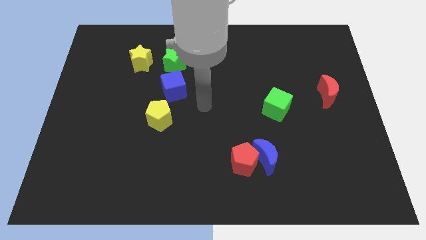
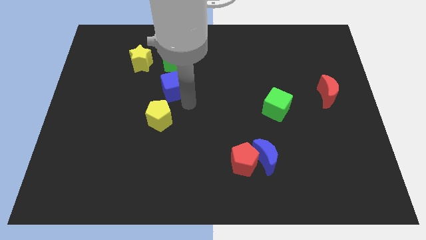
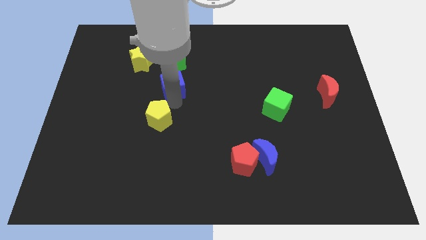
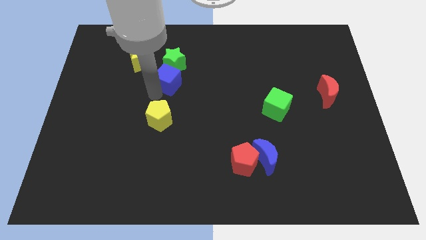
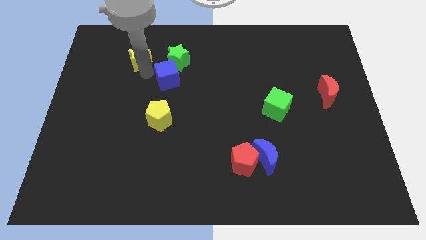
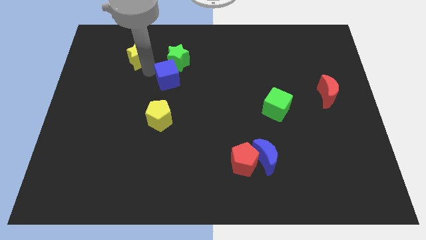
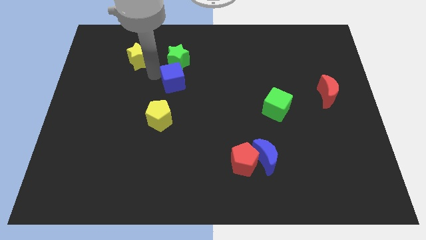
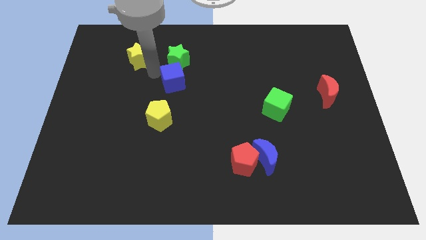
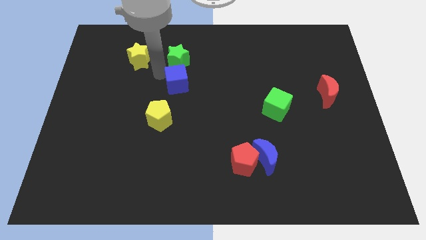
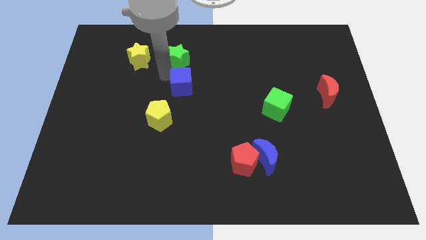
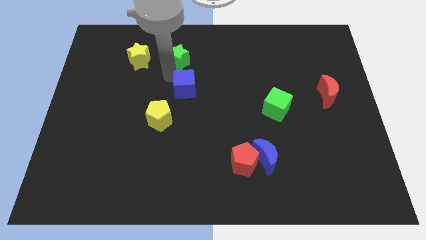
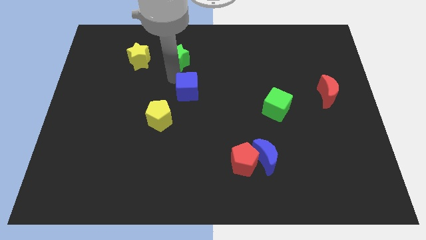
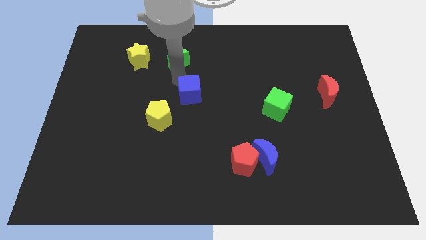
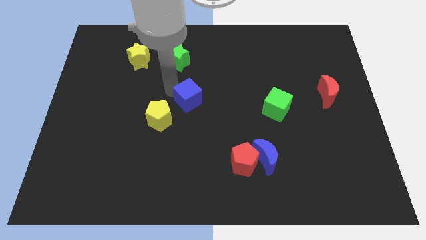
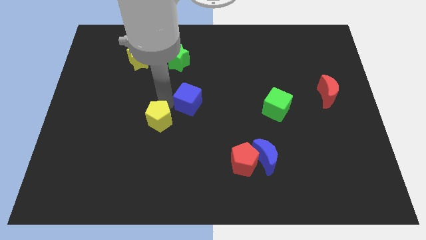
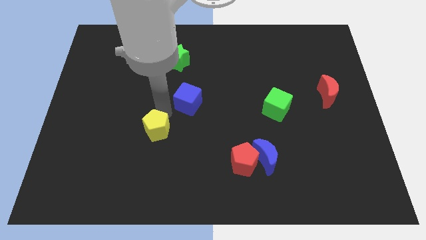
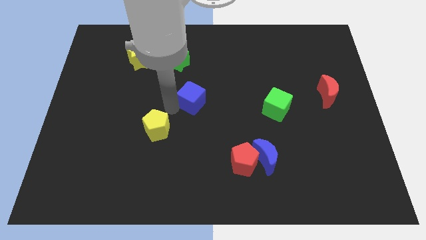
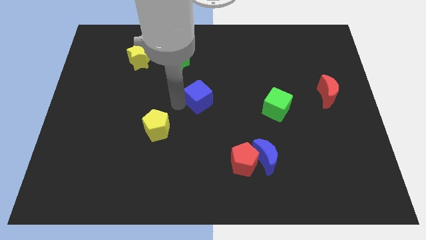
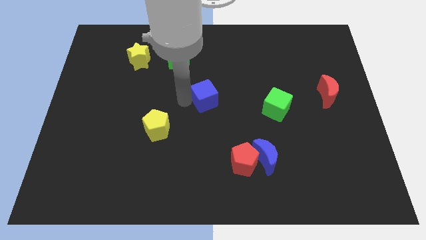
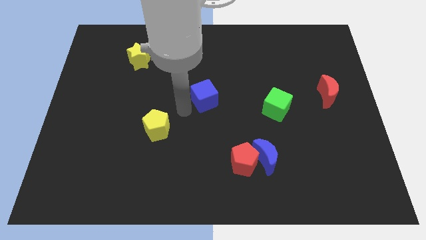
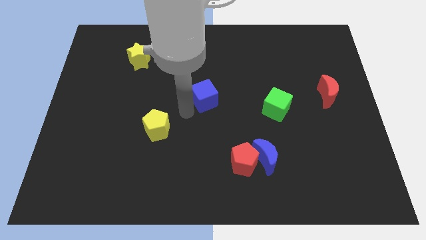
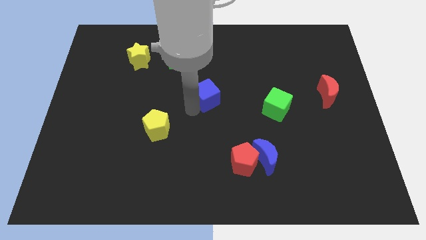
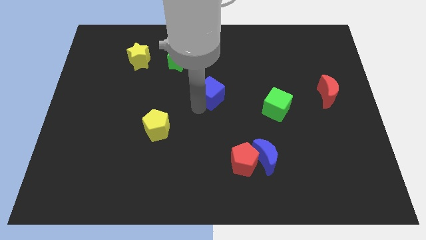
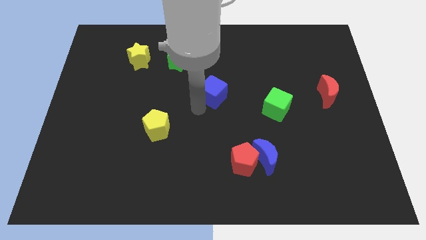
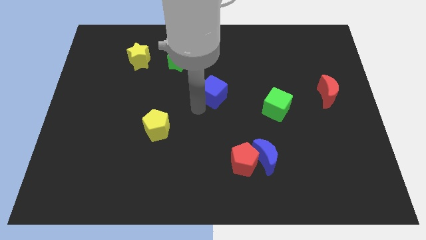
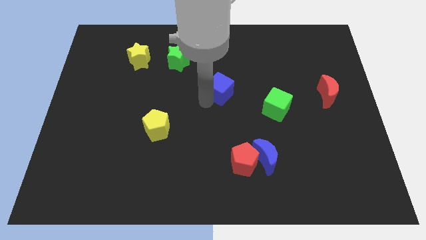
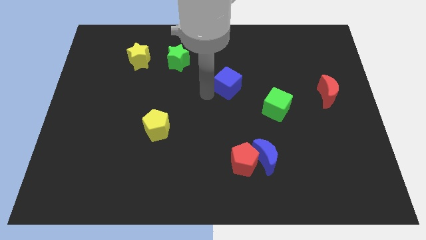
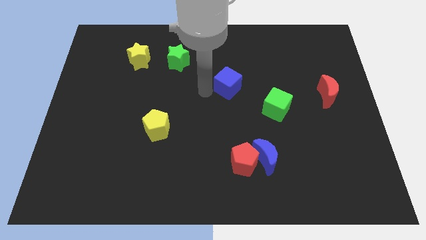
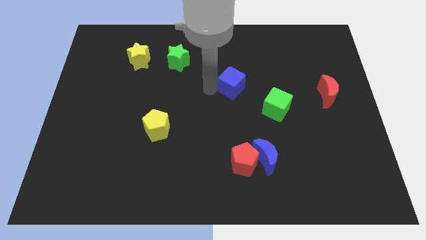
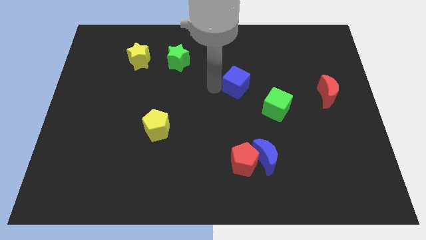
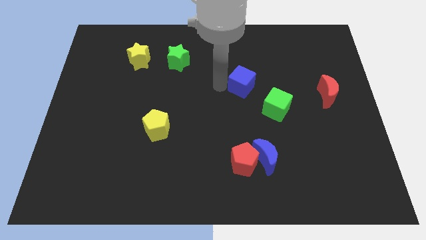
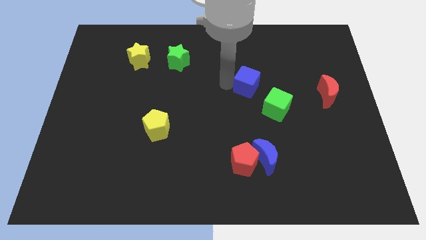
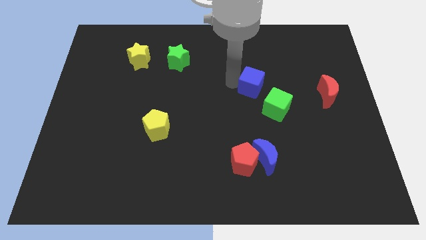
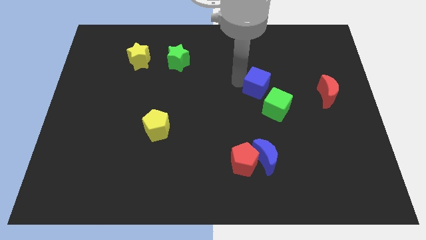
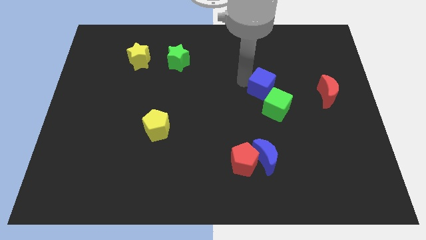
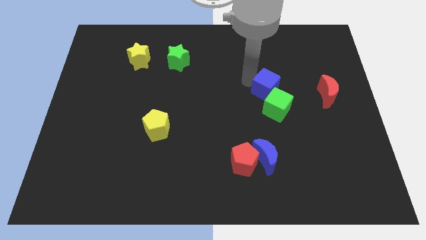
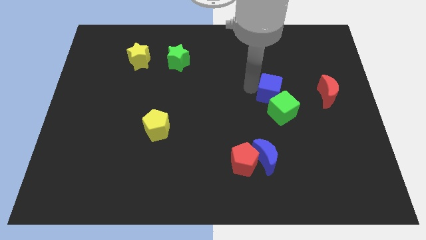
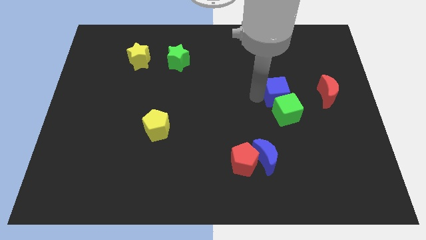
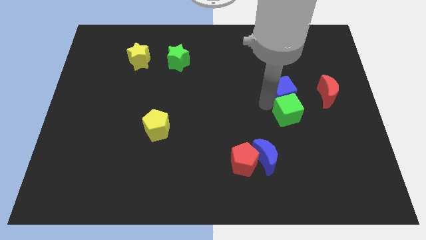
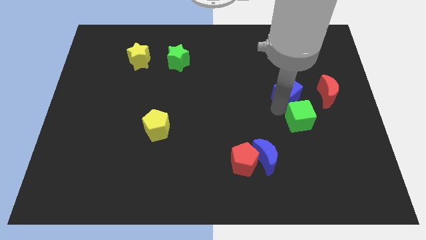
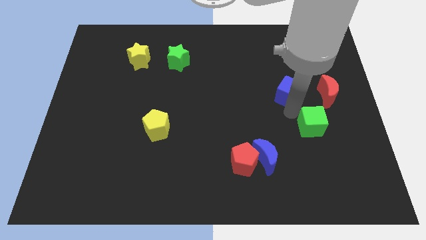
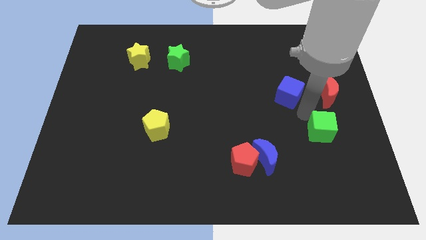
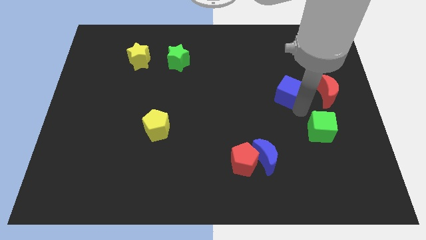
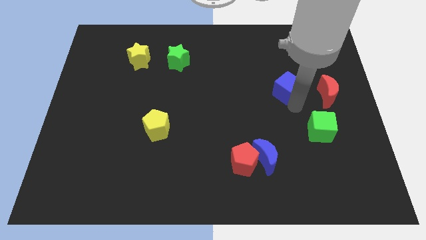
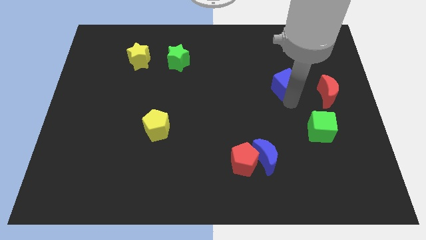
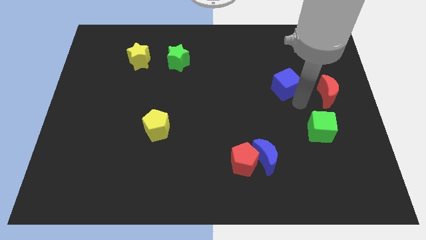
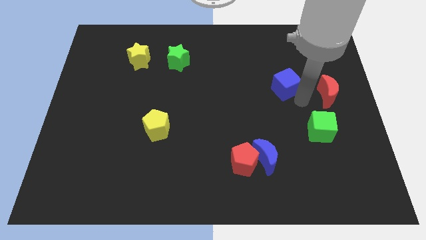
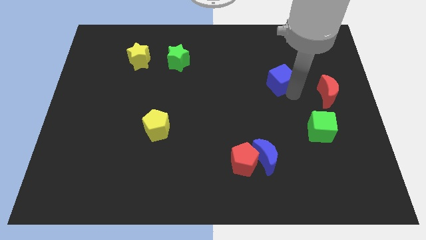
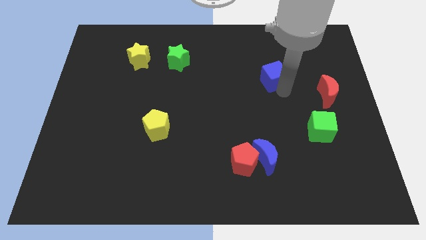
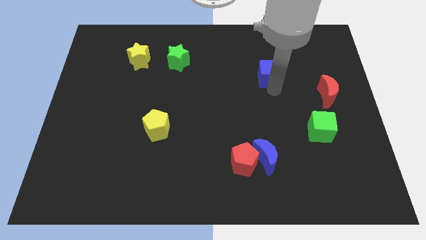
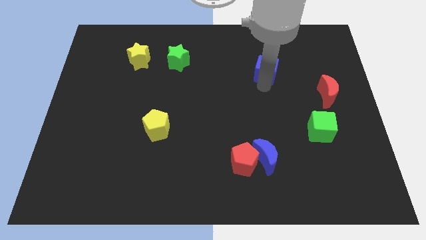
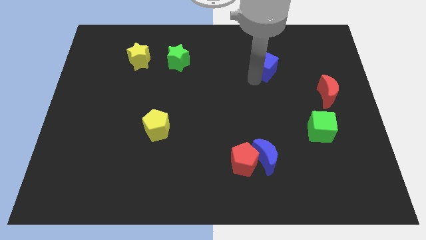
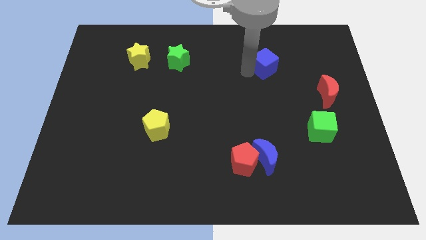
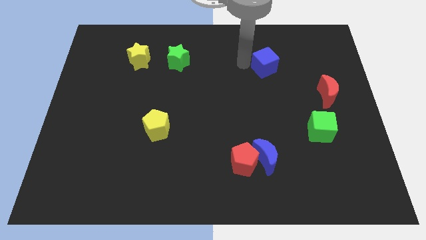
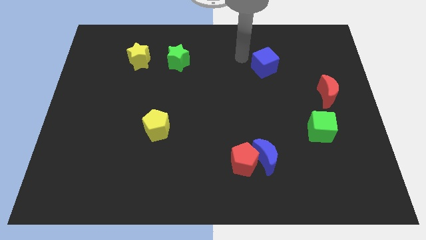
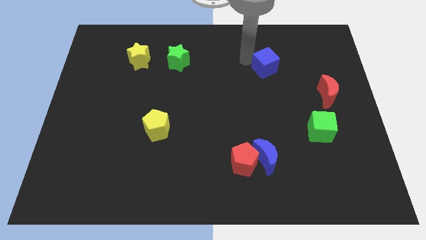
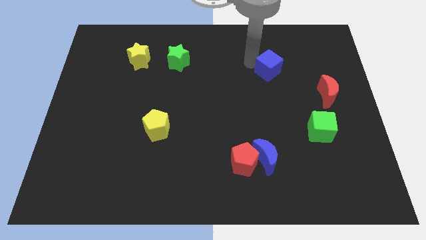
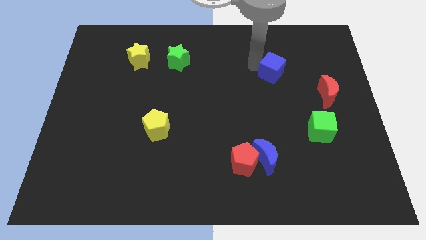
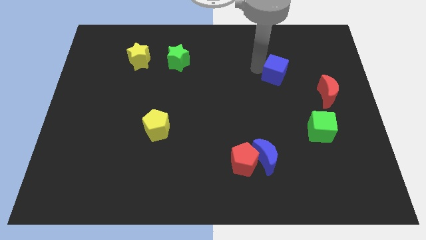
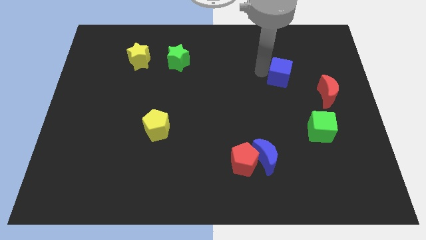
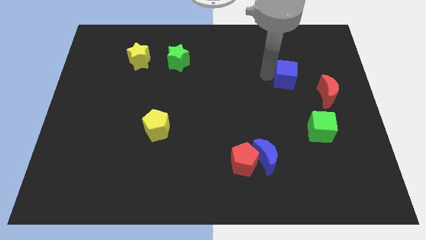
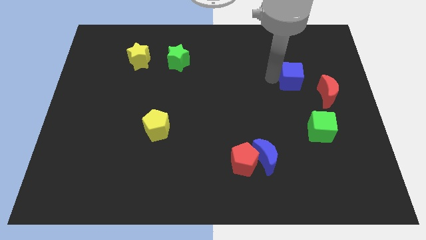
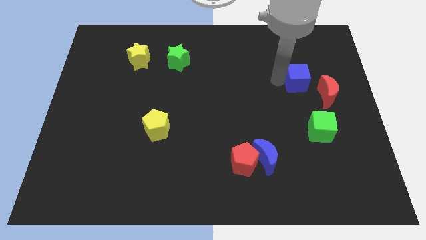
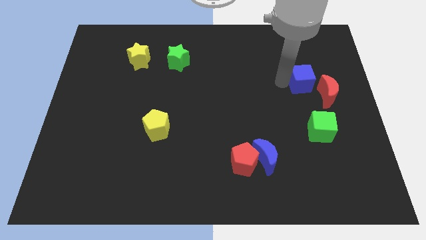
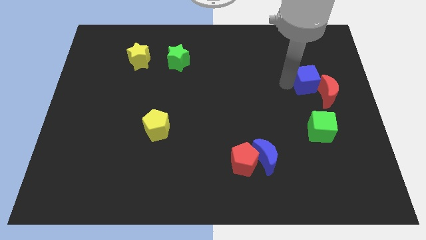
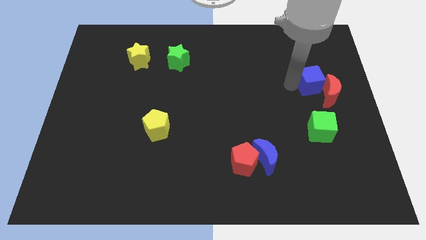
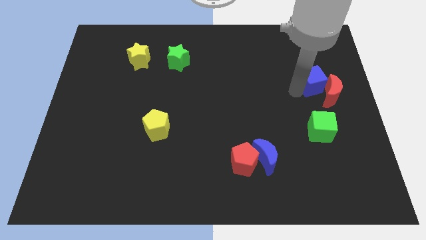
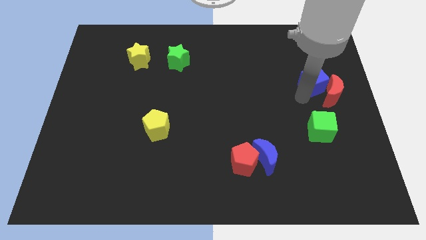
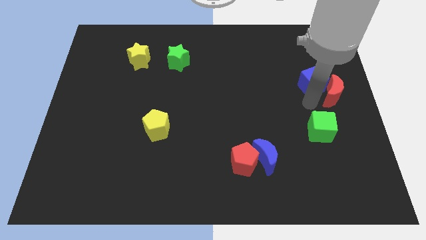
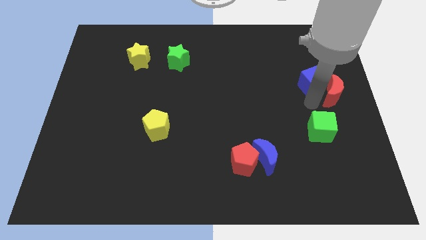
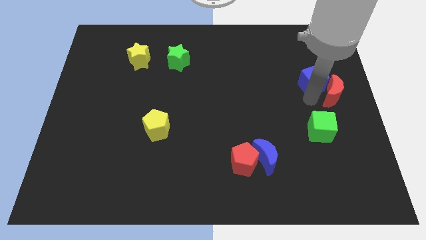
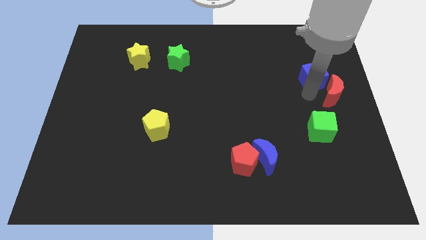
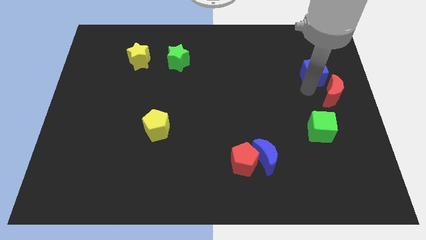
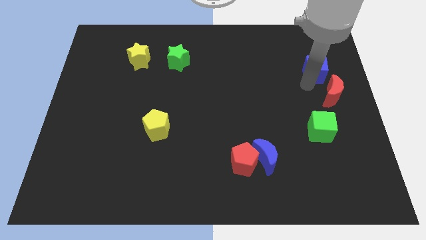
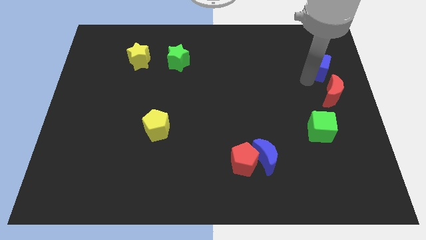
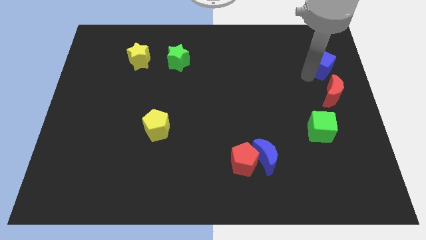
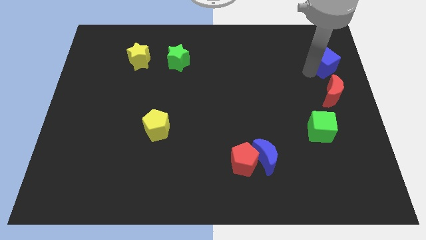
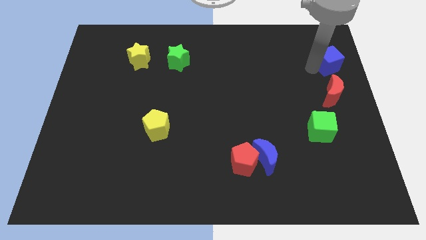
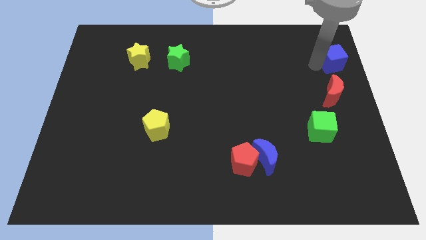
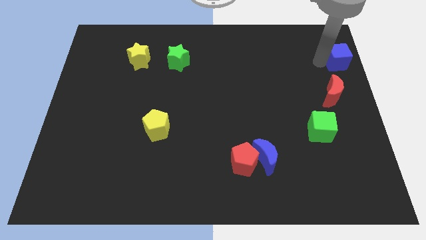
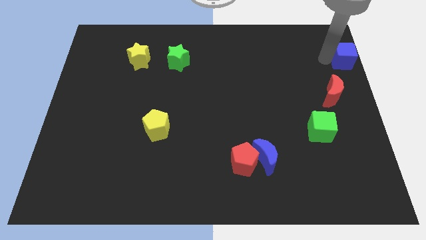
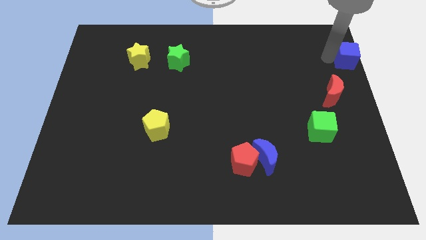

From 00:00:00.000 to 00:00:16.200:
slide the blue cube to the right side of the board
